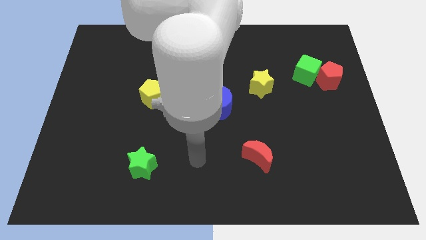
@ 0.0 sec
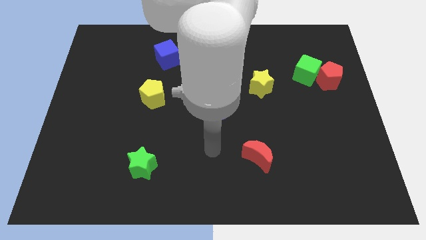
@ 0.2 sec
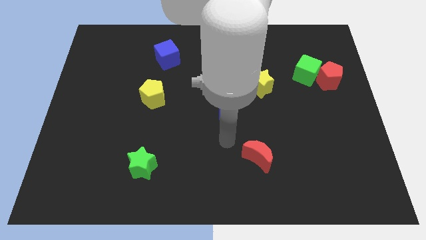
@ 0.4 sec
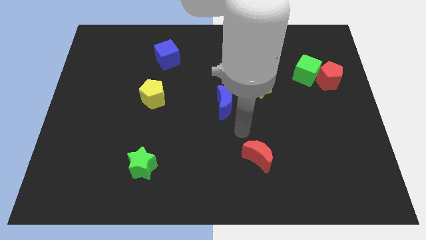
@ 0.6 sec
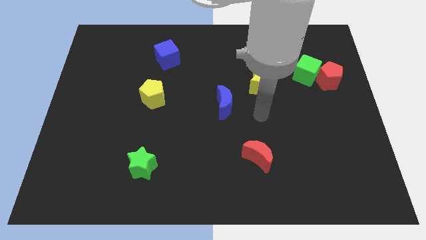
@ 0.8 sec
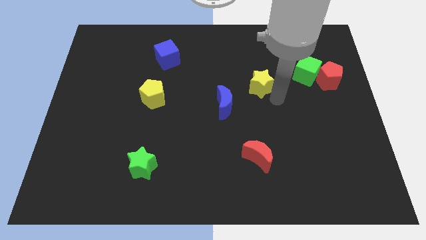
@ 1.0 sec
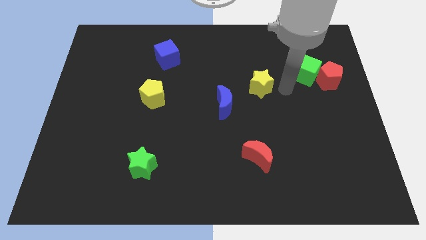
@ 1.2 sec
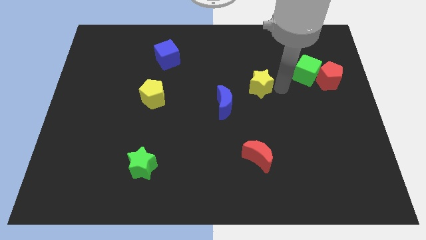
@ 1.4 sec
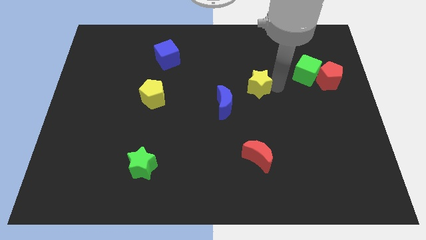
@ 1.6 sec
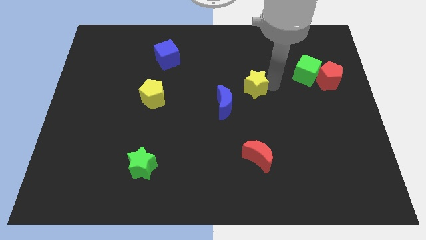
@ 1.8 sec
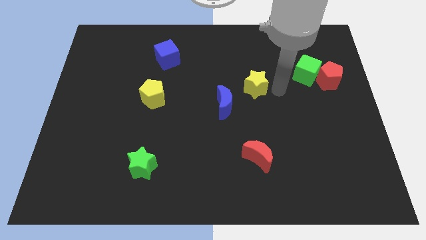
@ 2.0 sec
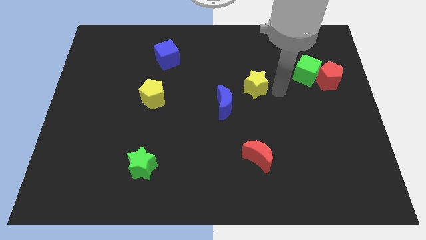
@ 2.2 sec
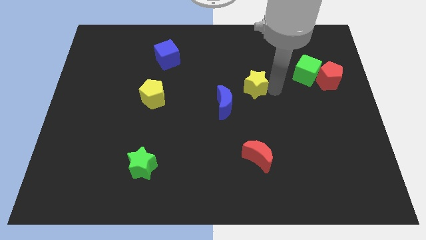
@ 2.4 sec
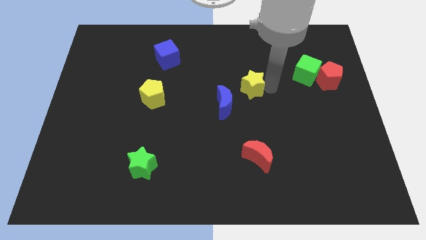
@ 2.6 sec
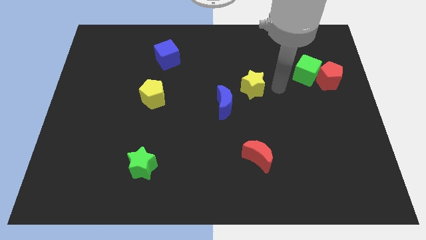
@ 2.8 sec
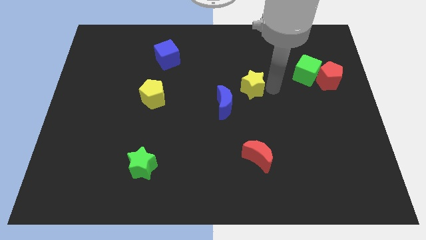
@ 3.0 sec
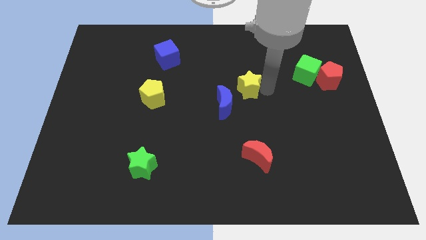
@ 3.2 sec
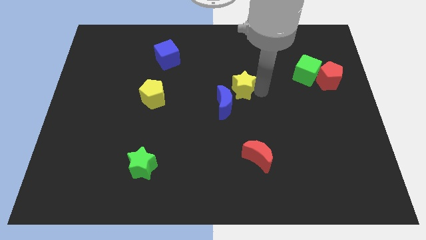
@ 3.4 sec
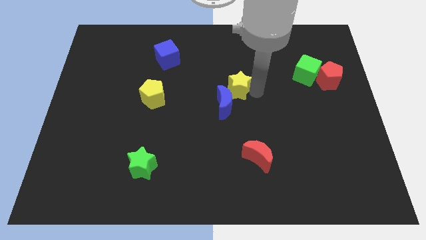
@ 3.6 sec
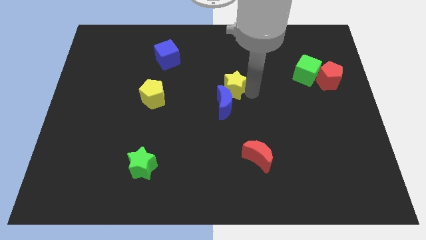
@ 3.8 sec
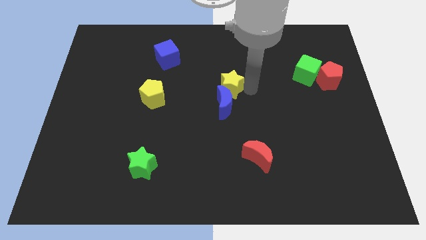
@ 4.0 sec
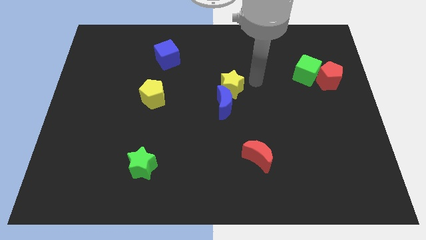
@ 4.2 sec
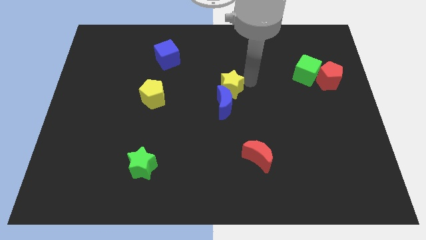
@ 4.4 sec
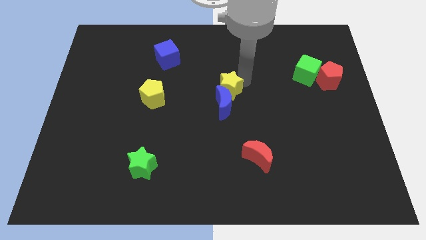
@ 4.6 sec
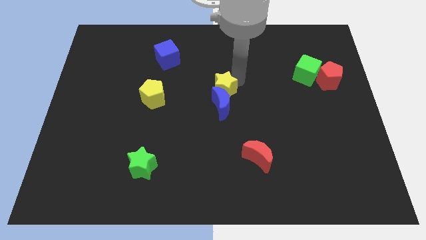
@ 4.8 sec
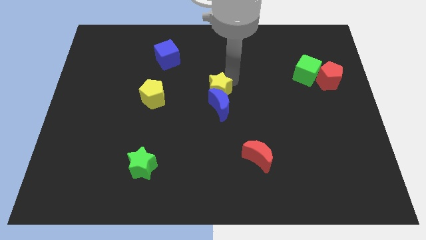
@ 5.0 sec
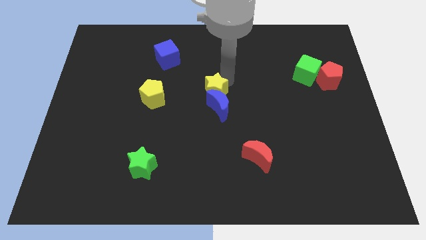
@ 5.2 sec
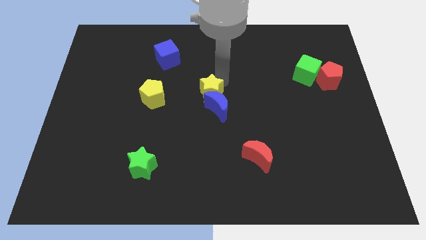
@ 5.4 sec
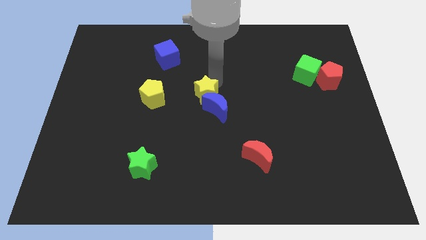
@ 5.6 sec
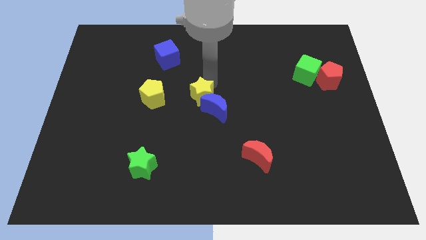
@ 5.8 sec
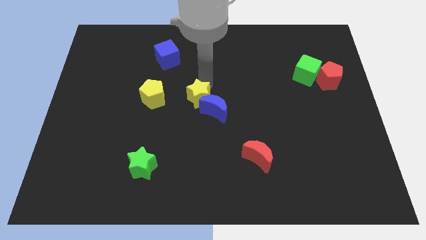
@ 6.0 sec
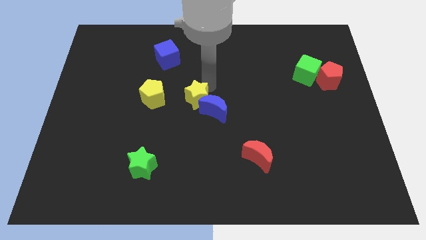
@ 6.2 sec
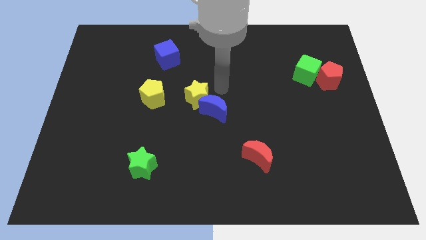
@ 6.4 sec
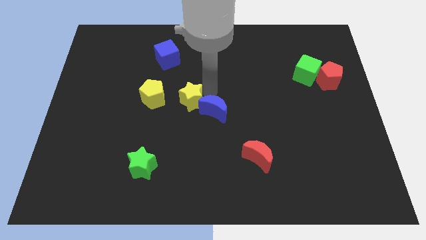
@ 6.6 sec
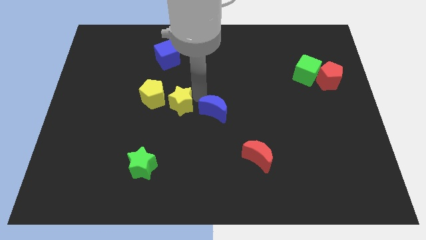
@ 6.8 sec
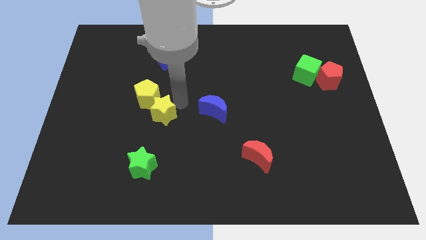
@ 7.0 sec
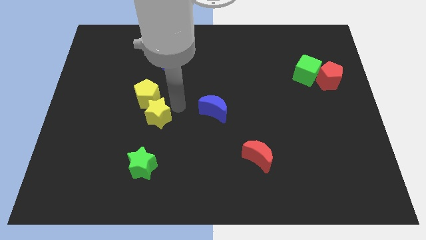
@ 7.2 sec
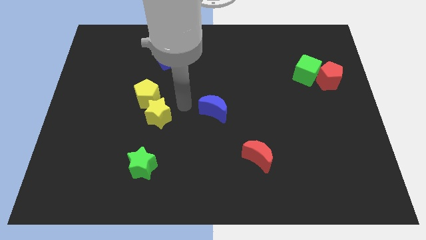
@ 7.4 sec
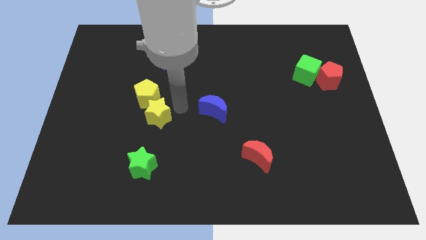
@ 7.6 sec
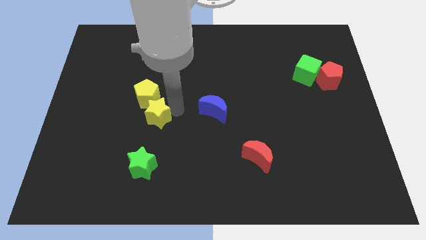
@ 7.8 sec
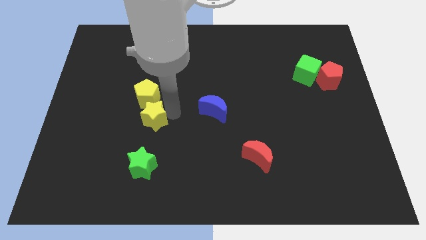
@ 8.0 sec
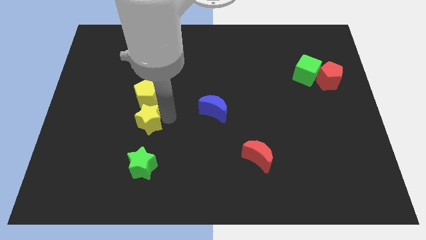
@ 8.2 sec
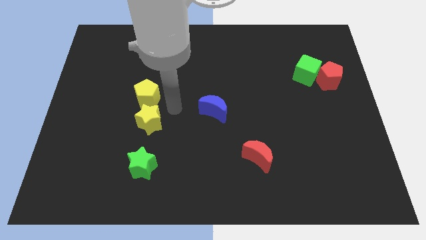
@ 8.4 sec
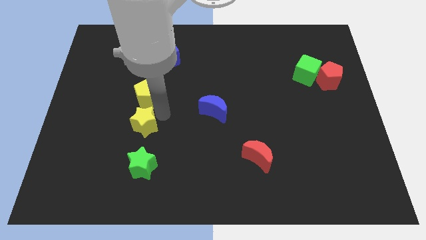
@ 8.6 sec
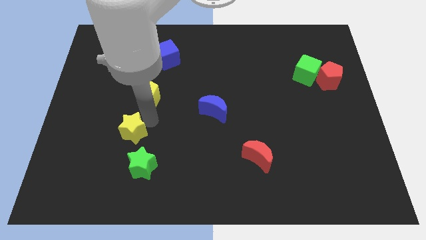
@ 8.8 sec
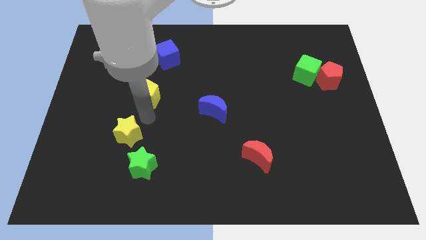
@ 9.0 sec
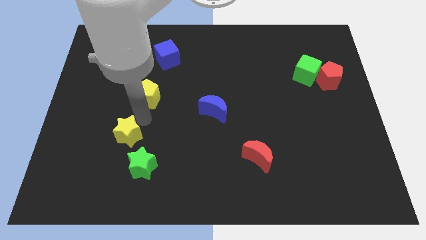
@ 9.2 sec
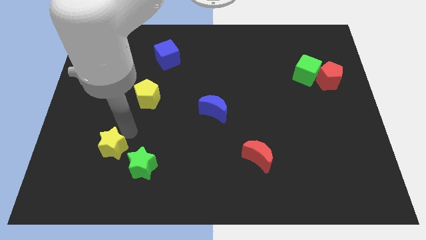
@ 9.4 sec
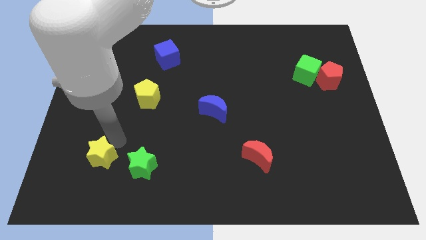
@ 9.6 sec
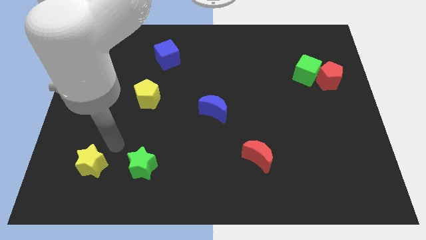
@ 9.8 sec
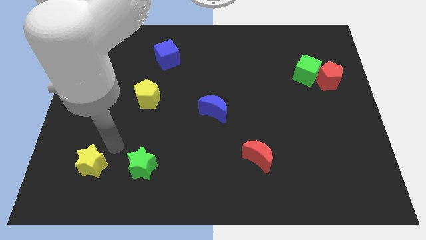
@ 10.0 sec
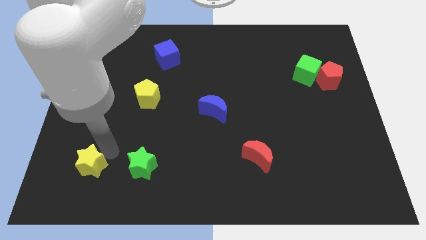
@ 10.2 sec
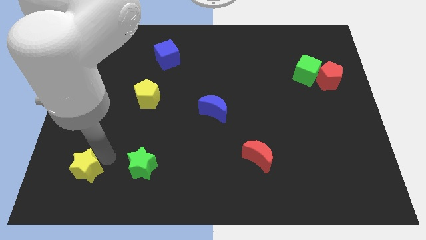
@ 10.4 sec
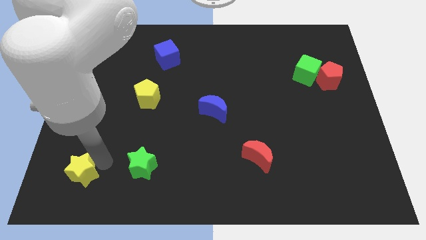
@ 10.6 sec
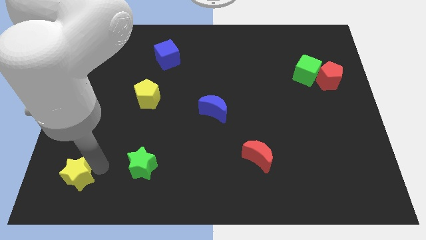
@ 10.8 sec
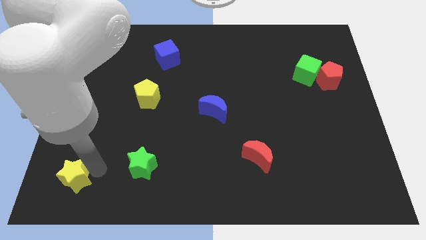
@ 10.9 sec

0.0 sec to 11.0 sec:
slide the yellow star to the bottom left corner

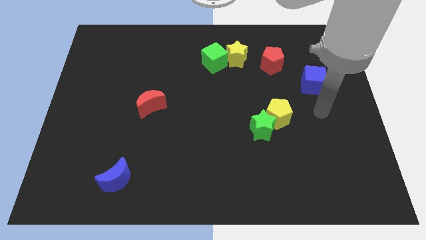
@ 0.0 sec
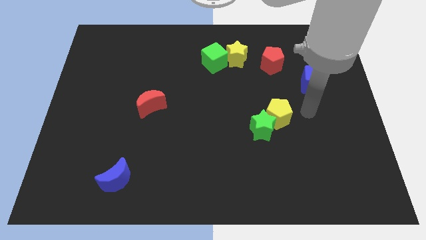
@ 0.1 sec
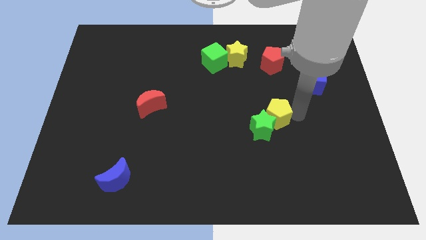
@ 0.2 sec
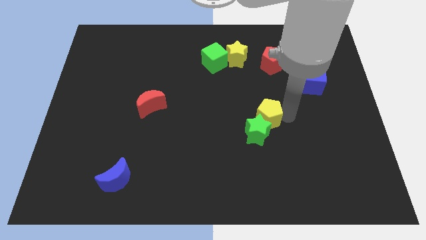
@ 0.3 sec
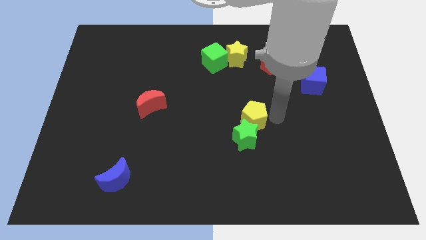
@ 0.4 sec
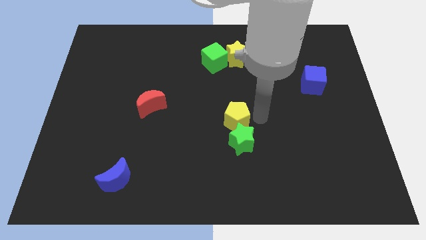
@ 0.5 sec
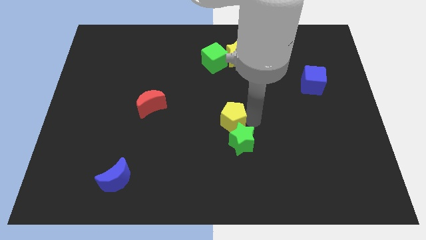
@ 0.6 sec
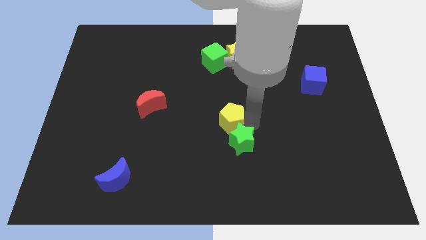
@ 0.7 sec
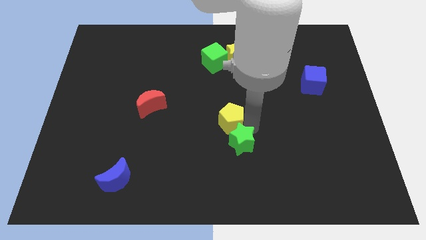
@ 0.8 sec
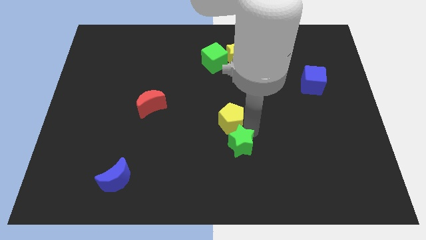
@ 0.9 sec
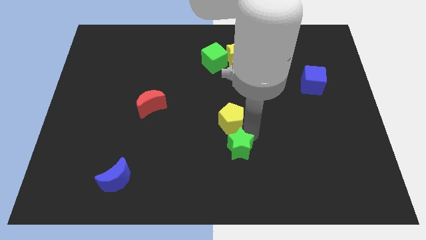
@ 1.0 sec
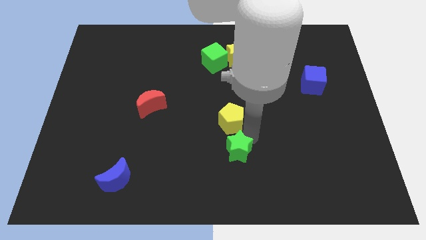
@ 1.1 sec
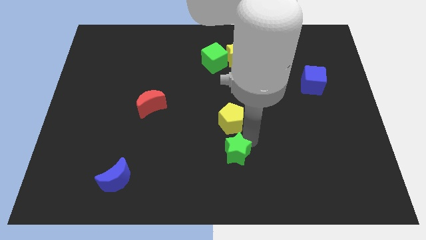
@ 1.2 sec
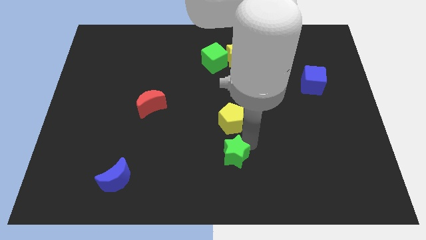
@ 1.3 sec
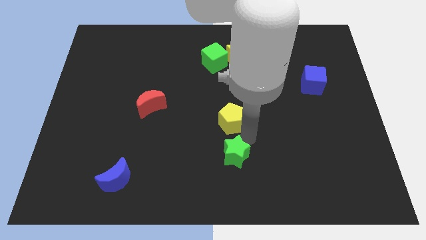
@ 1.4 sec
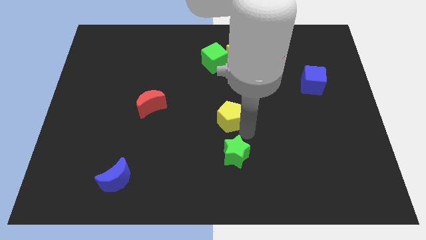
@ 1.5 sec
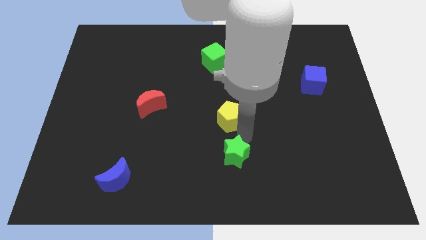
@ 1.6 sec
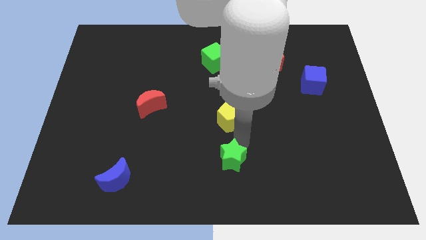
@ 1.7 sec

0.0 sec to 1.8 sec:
slide the green star to the bottom side
